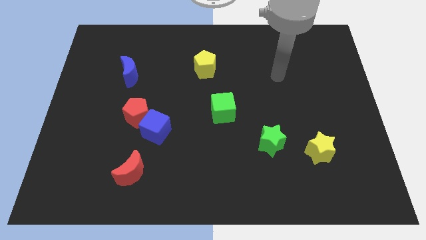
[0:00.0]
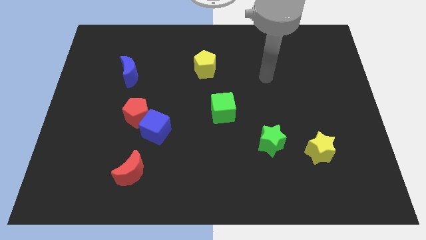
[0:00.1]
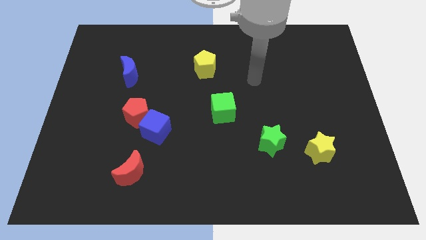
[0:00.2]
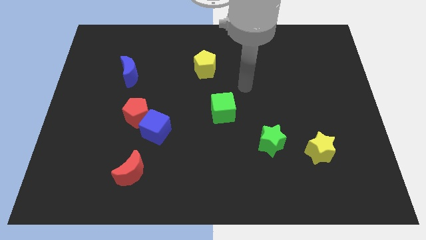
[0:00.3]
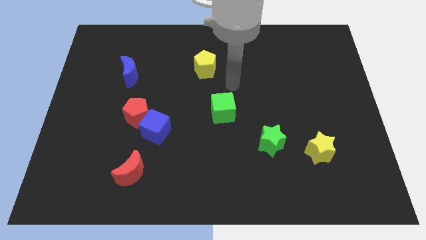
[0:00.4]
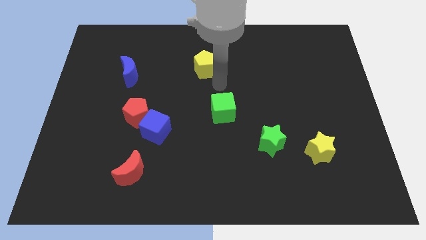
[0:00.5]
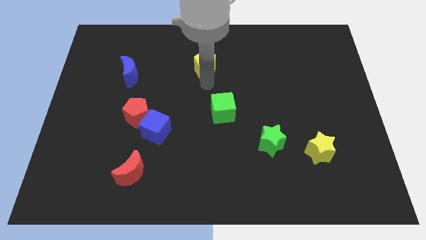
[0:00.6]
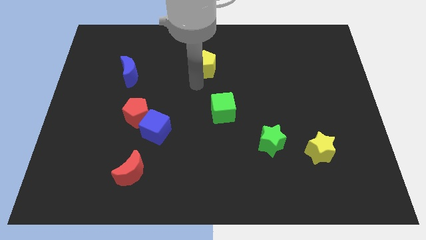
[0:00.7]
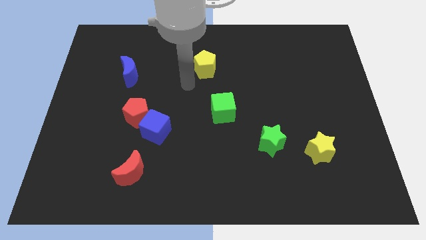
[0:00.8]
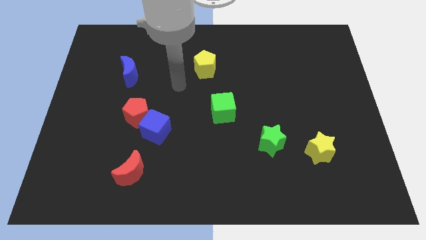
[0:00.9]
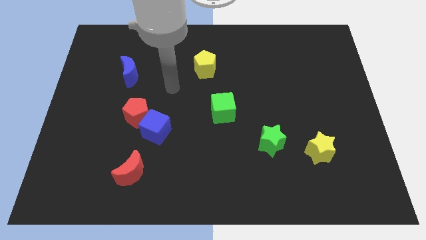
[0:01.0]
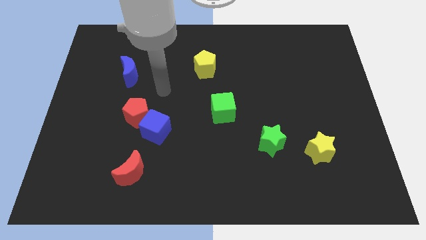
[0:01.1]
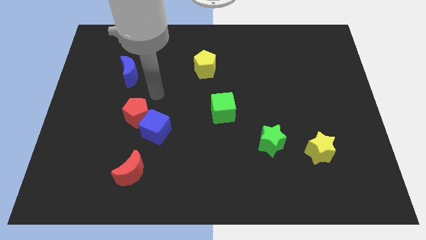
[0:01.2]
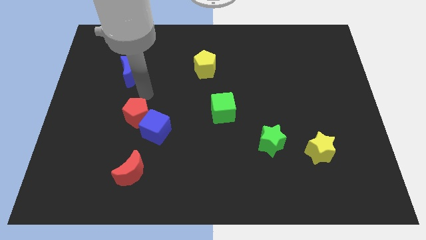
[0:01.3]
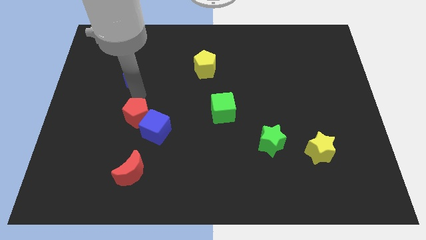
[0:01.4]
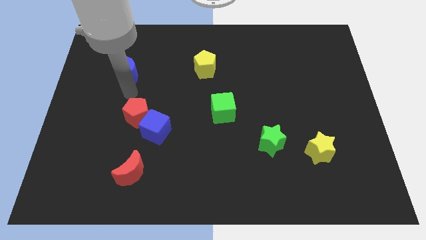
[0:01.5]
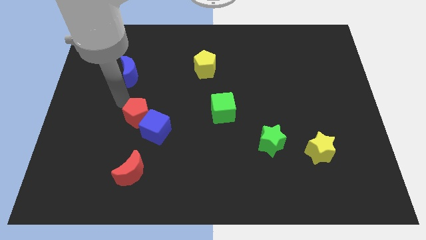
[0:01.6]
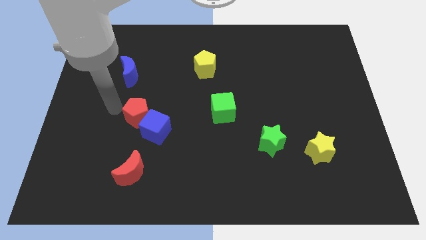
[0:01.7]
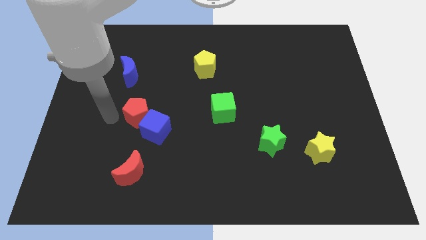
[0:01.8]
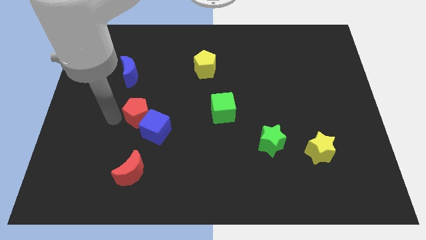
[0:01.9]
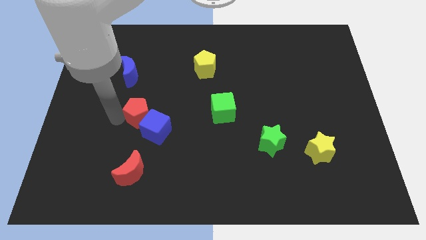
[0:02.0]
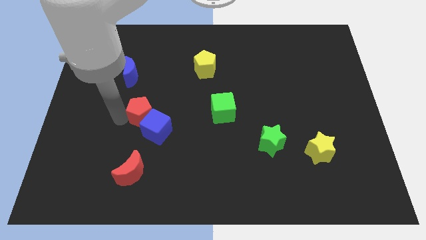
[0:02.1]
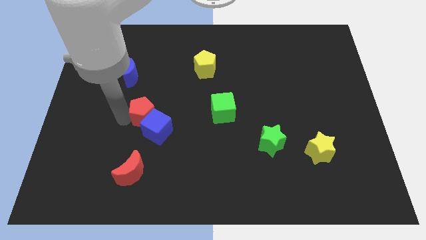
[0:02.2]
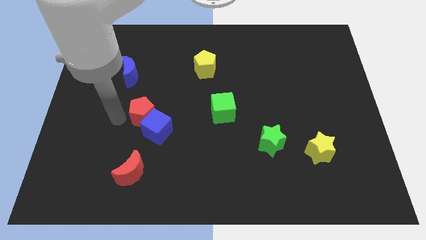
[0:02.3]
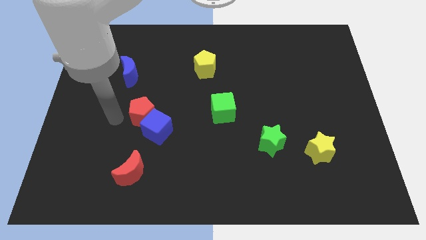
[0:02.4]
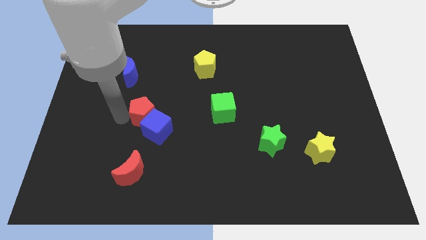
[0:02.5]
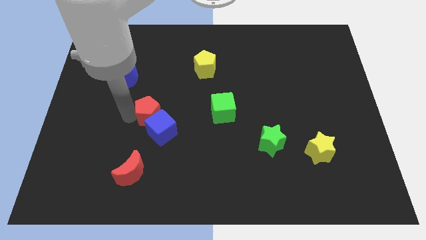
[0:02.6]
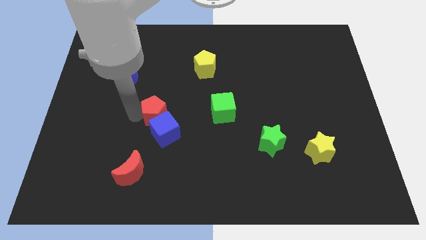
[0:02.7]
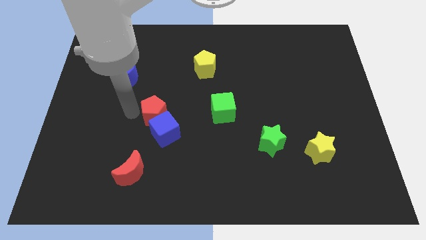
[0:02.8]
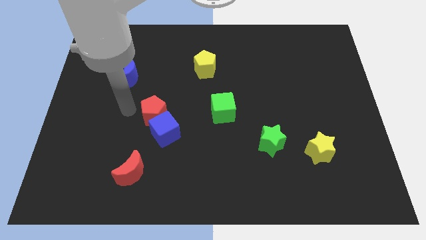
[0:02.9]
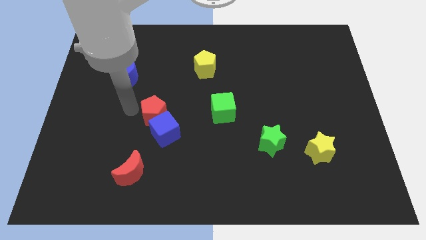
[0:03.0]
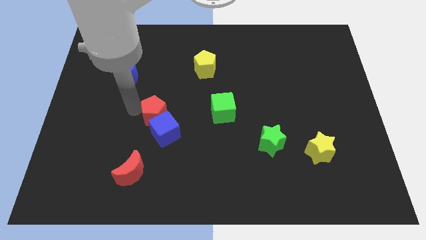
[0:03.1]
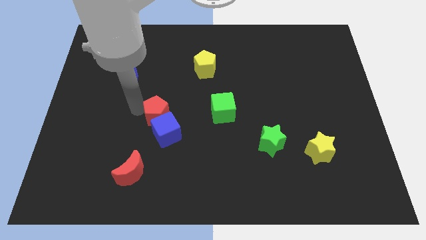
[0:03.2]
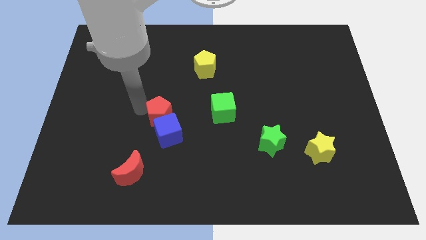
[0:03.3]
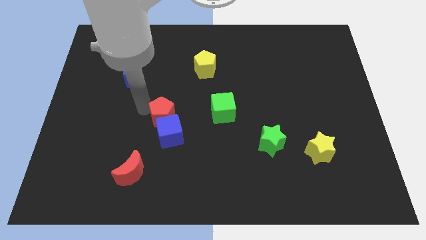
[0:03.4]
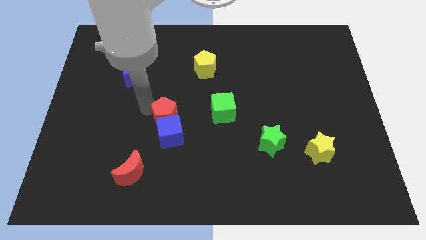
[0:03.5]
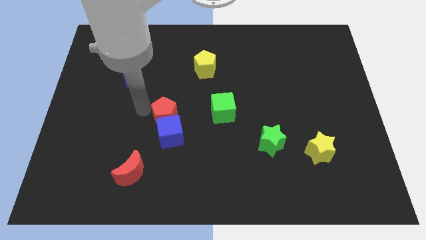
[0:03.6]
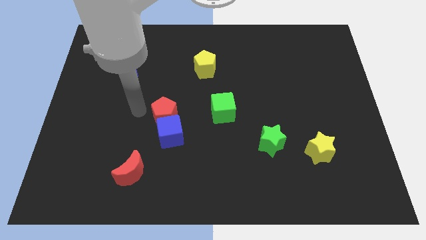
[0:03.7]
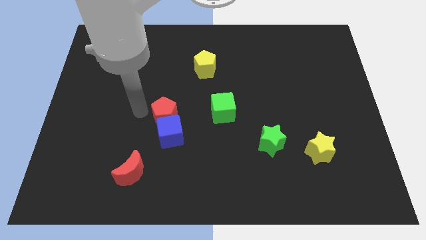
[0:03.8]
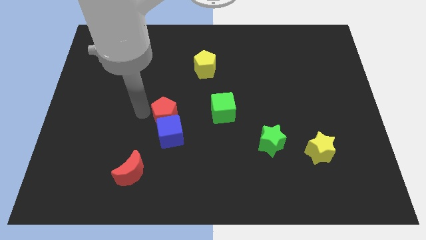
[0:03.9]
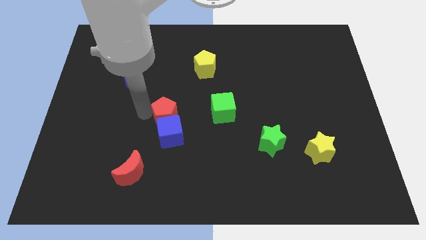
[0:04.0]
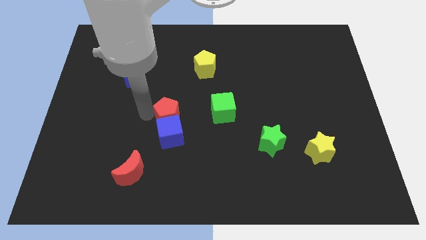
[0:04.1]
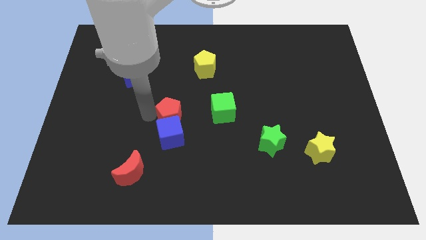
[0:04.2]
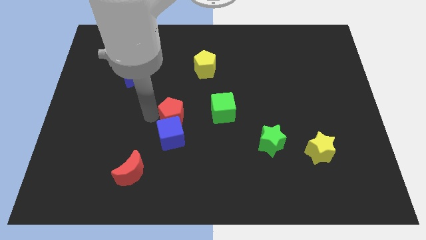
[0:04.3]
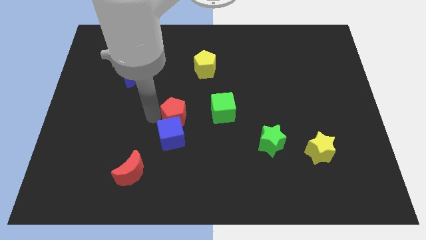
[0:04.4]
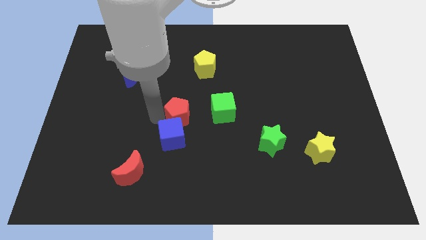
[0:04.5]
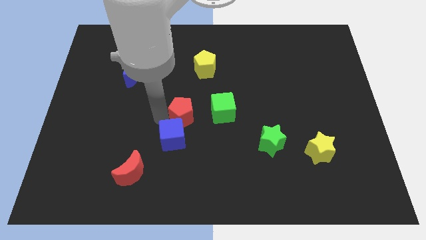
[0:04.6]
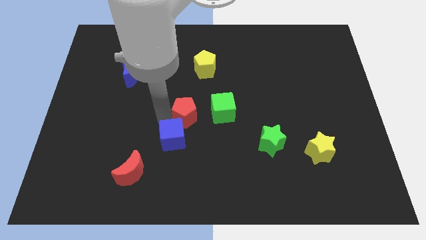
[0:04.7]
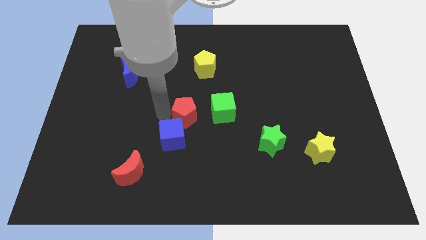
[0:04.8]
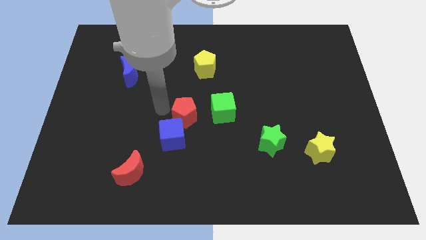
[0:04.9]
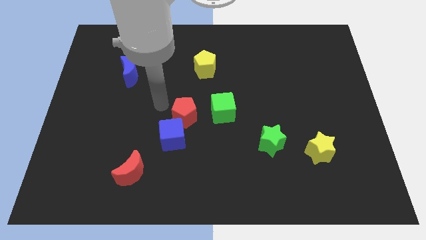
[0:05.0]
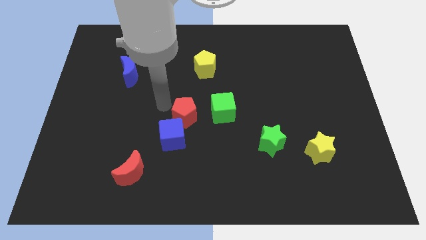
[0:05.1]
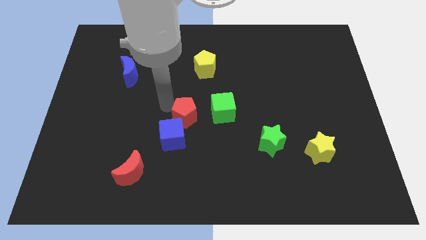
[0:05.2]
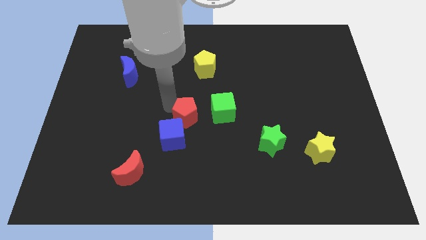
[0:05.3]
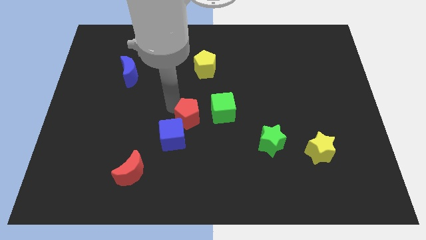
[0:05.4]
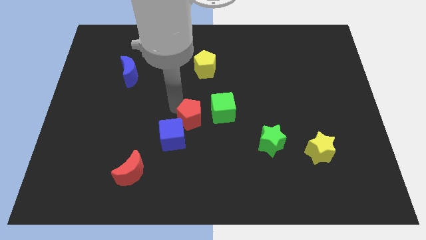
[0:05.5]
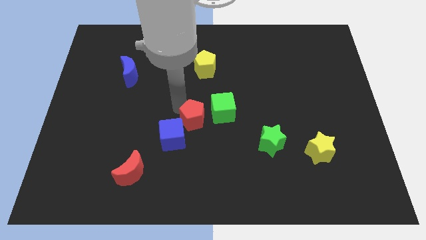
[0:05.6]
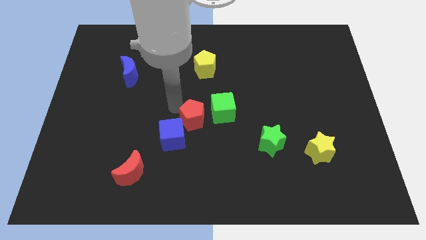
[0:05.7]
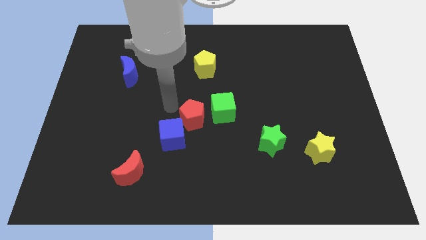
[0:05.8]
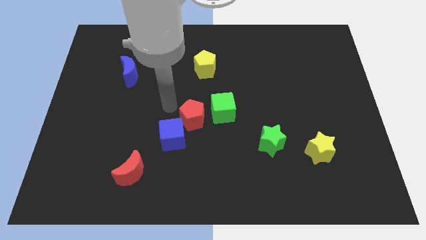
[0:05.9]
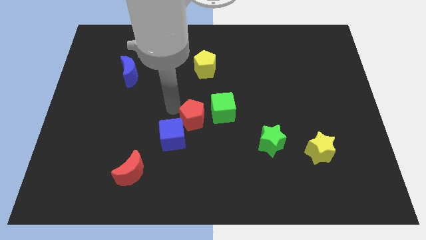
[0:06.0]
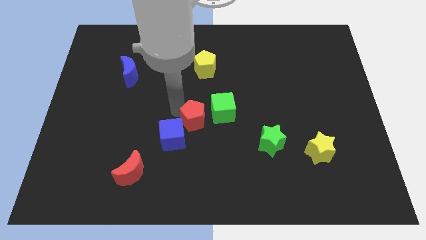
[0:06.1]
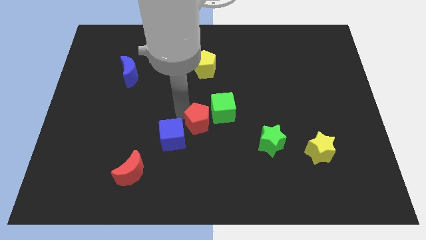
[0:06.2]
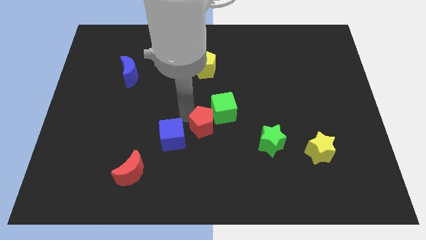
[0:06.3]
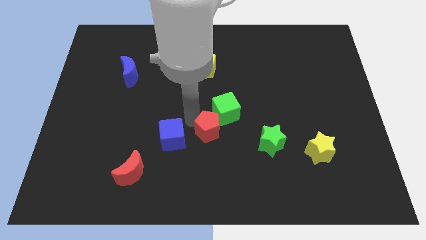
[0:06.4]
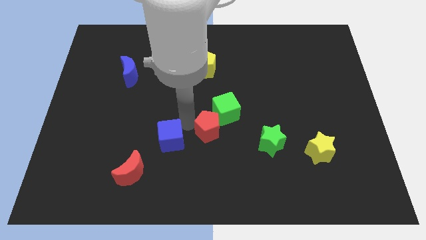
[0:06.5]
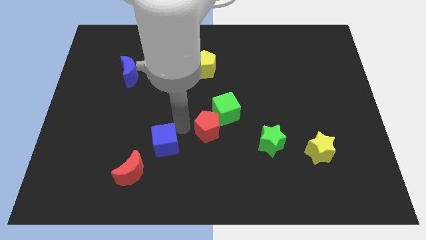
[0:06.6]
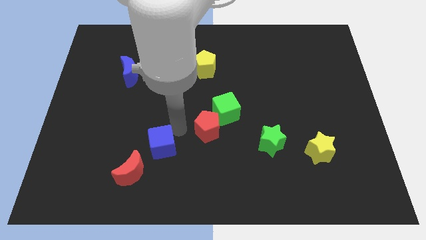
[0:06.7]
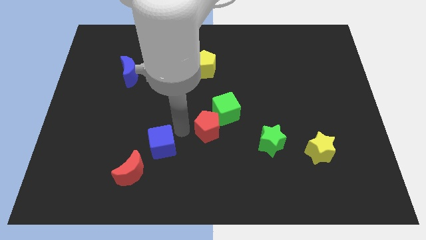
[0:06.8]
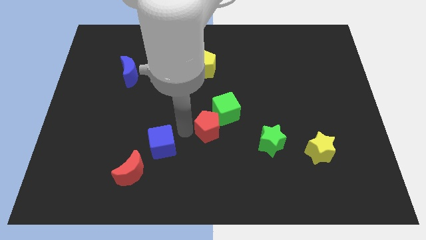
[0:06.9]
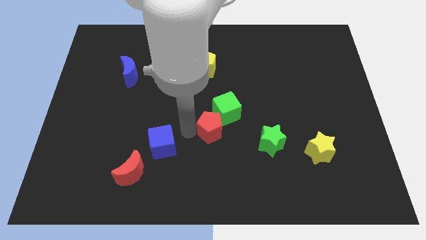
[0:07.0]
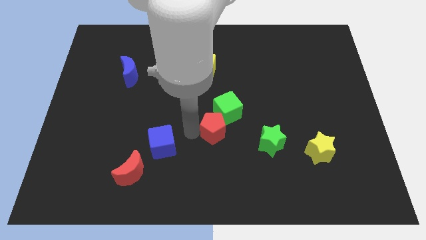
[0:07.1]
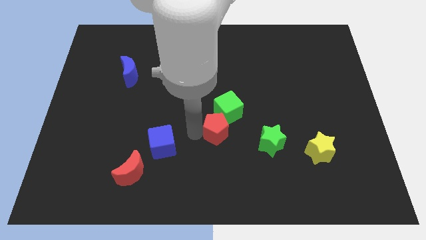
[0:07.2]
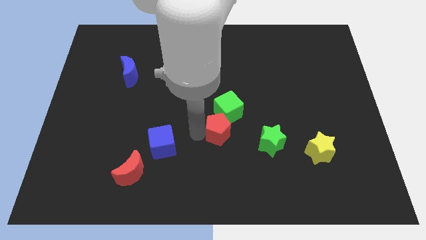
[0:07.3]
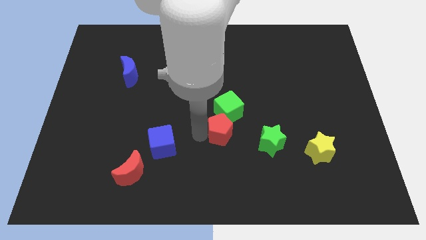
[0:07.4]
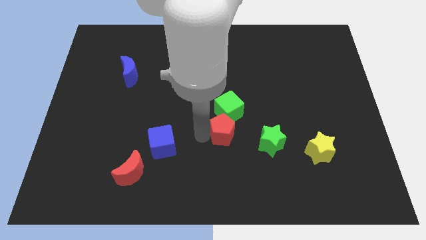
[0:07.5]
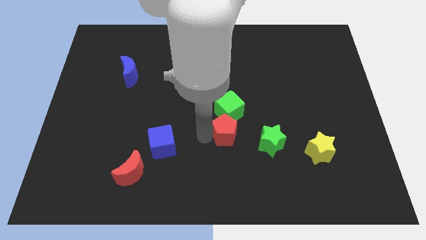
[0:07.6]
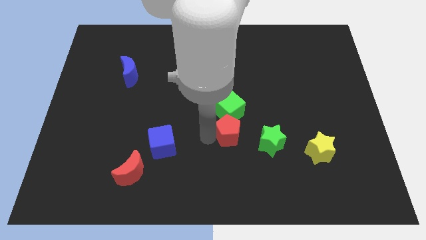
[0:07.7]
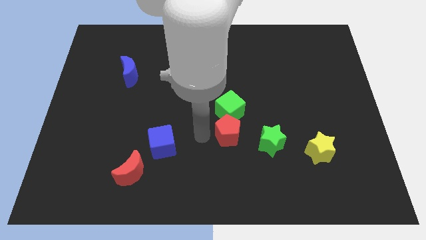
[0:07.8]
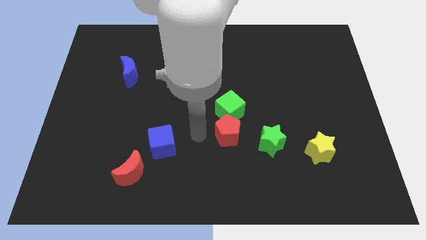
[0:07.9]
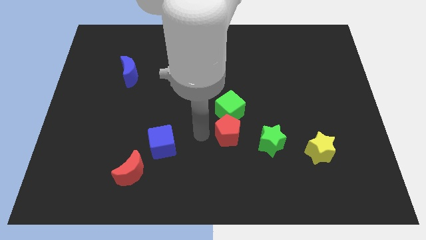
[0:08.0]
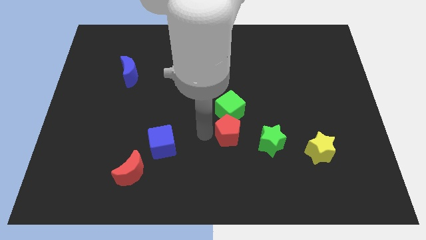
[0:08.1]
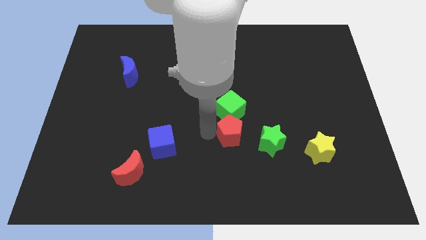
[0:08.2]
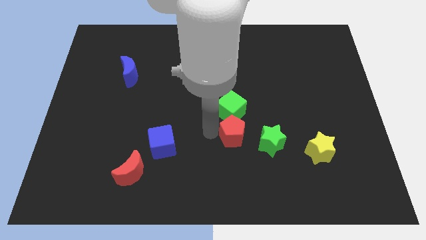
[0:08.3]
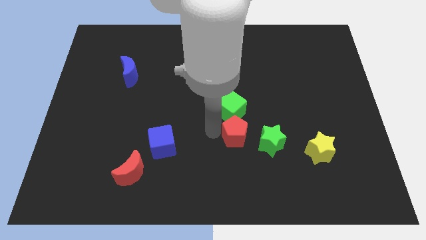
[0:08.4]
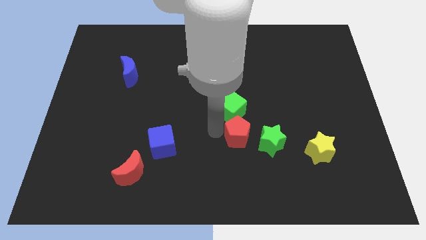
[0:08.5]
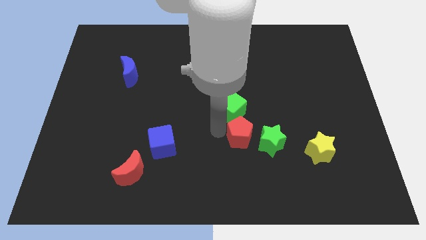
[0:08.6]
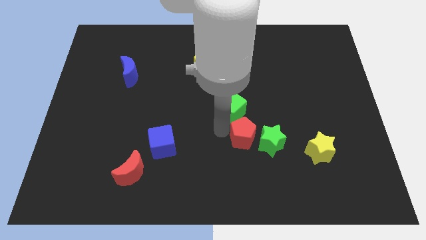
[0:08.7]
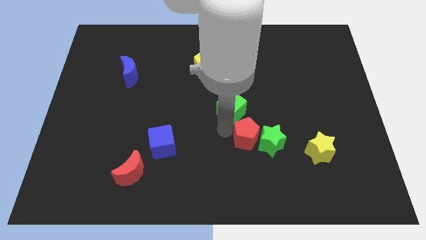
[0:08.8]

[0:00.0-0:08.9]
push the red pentagon towards the green star
